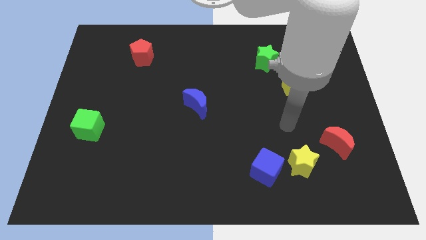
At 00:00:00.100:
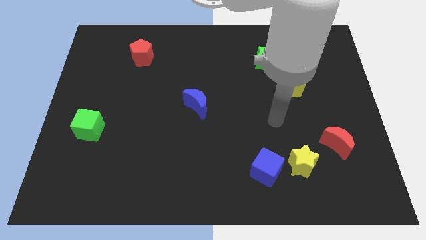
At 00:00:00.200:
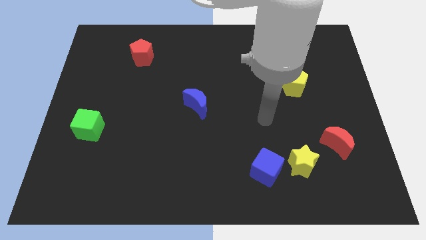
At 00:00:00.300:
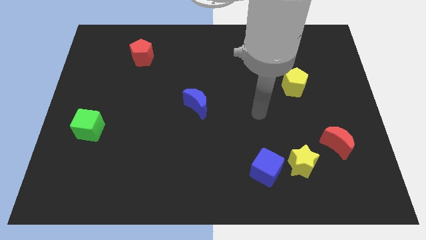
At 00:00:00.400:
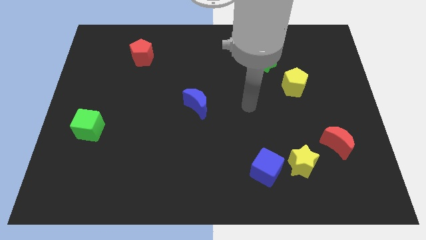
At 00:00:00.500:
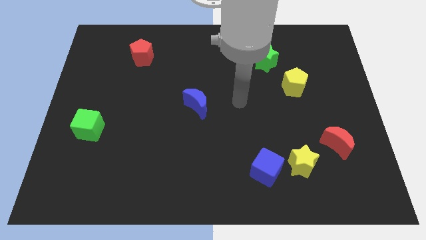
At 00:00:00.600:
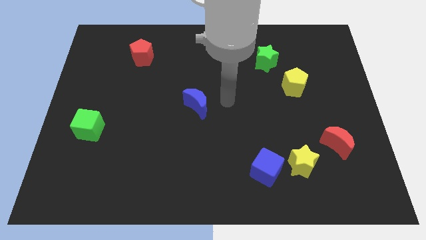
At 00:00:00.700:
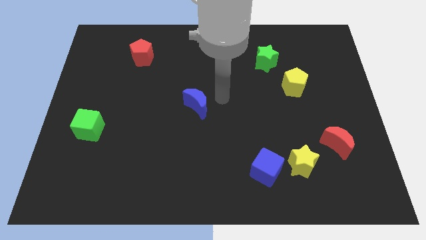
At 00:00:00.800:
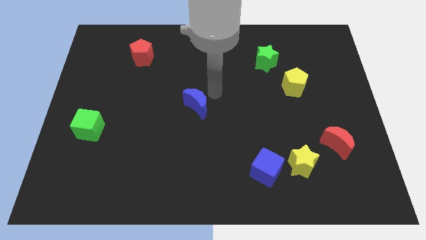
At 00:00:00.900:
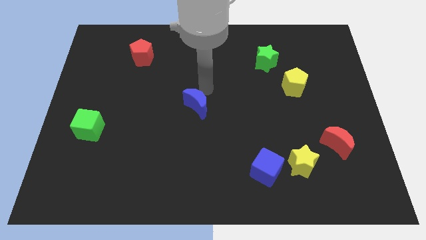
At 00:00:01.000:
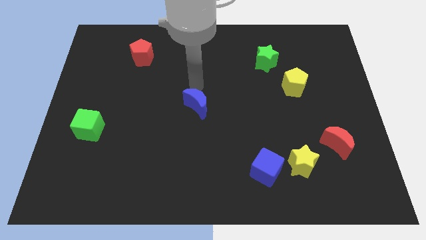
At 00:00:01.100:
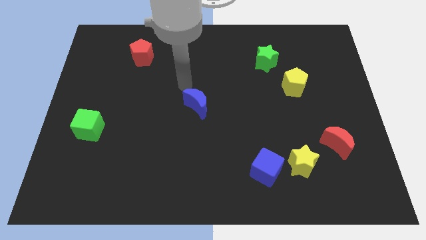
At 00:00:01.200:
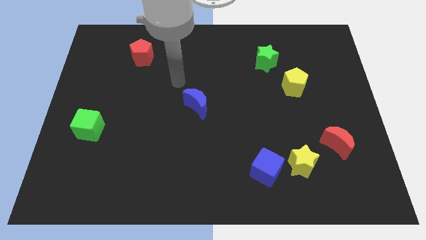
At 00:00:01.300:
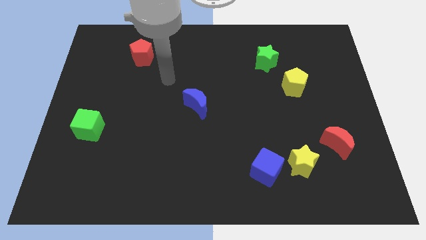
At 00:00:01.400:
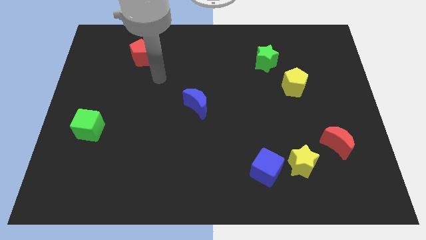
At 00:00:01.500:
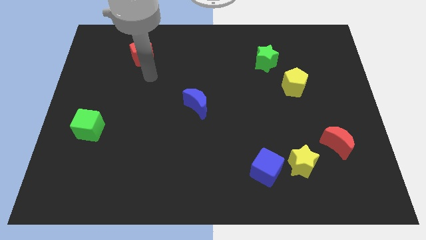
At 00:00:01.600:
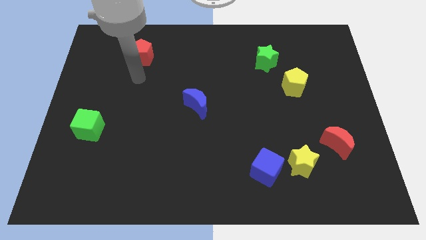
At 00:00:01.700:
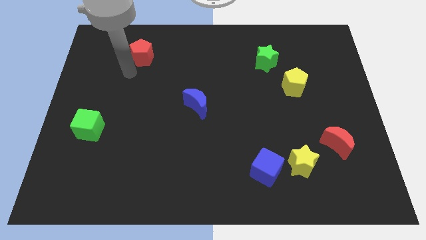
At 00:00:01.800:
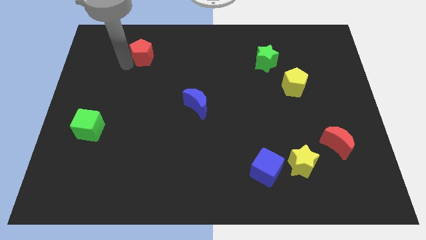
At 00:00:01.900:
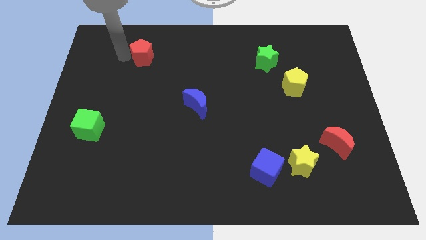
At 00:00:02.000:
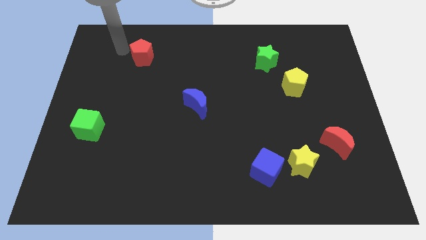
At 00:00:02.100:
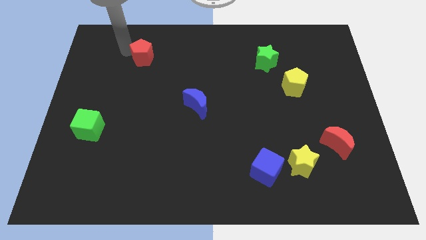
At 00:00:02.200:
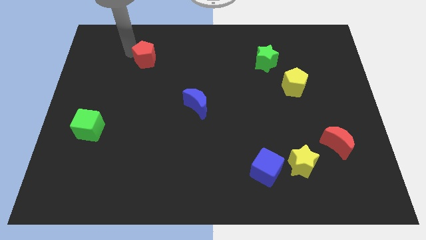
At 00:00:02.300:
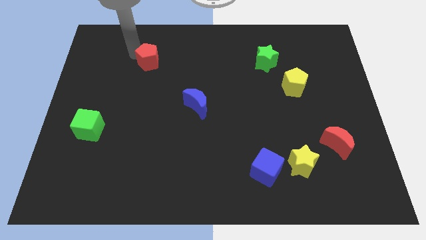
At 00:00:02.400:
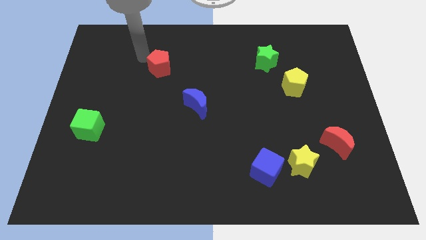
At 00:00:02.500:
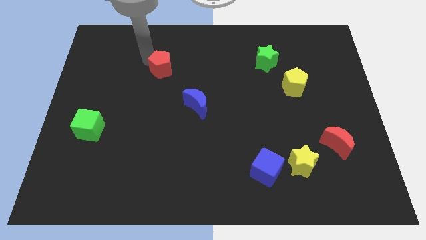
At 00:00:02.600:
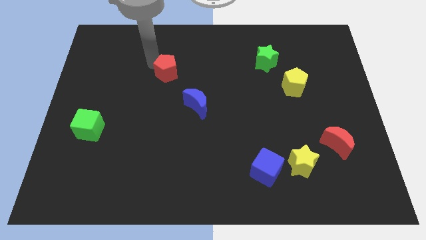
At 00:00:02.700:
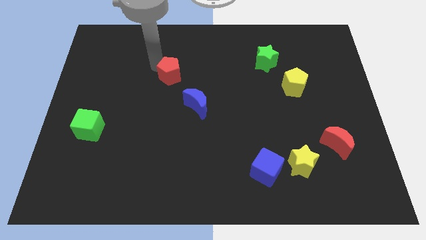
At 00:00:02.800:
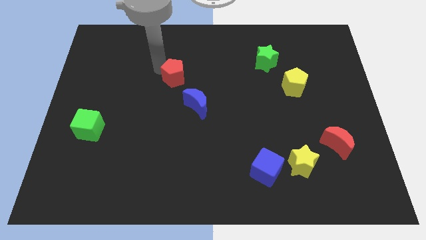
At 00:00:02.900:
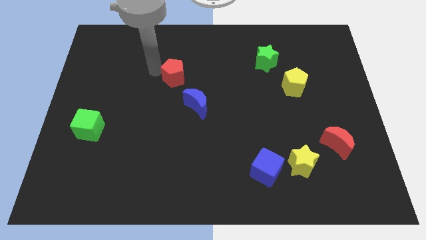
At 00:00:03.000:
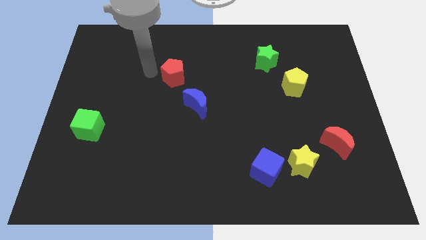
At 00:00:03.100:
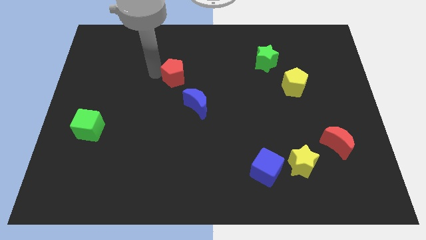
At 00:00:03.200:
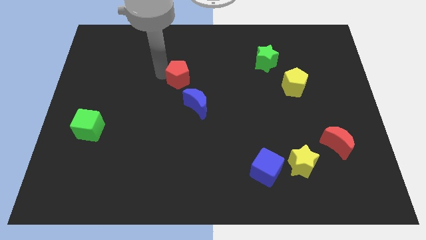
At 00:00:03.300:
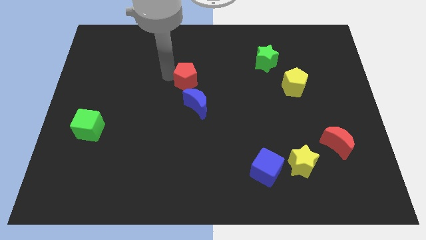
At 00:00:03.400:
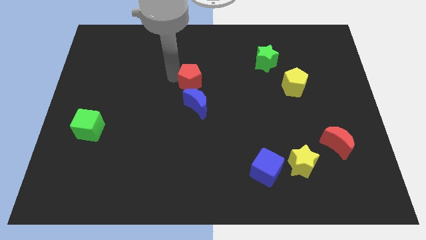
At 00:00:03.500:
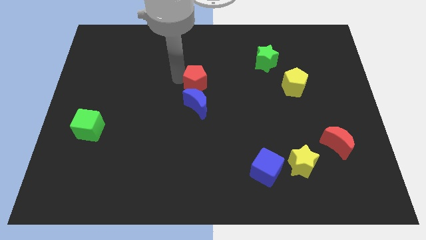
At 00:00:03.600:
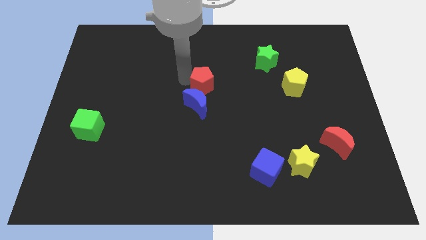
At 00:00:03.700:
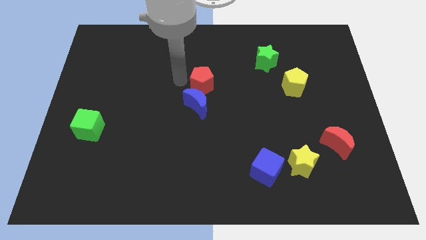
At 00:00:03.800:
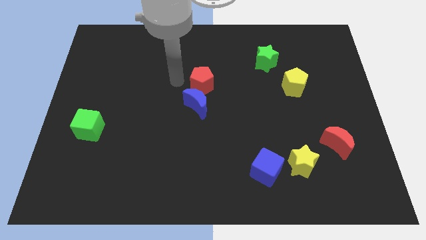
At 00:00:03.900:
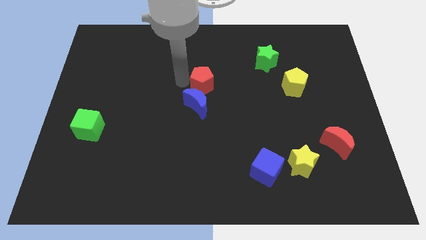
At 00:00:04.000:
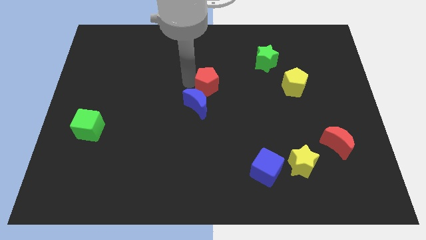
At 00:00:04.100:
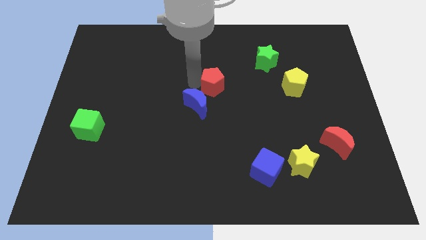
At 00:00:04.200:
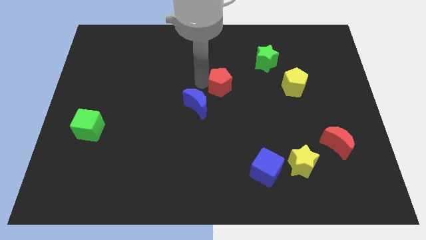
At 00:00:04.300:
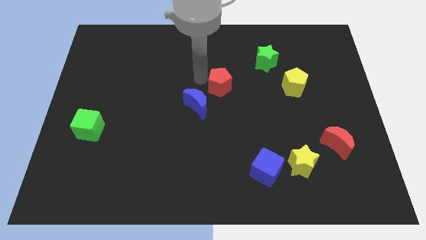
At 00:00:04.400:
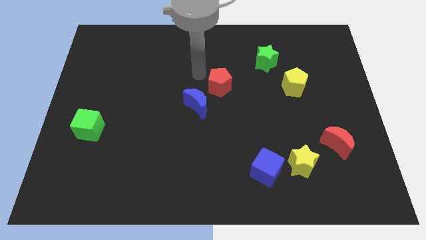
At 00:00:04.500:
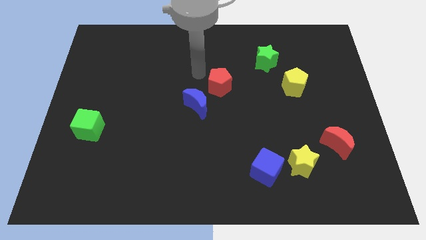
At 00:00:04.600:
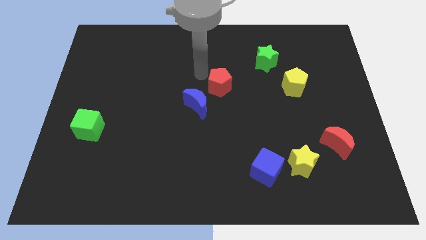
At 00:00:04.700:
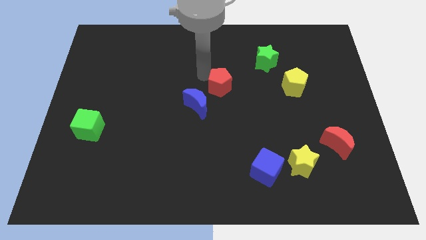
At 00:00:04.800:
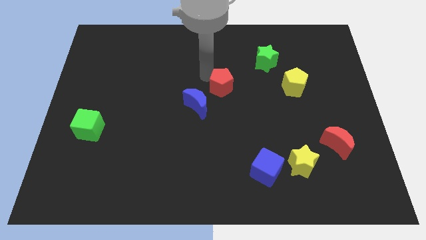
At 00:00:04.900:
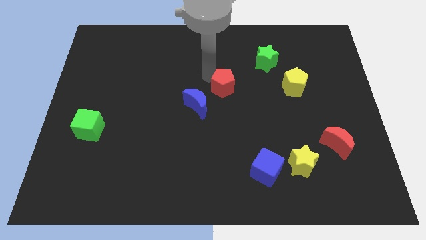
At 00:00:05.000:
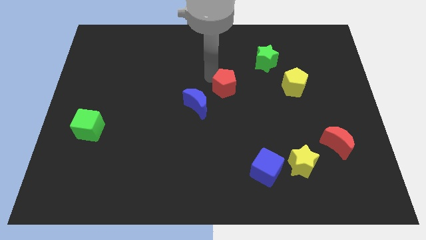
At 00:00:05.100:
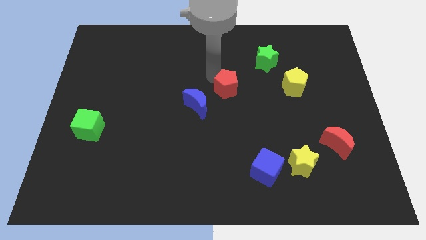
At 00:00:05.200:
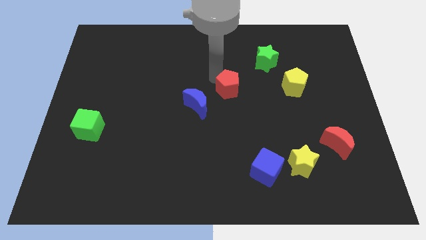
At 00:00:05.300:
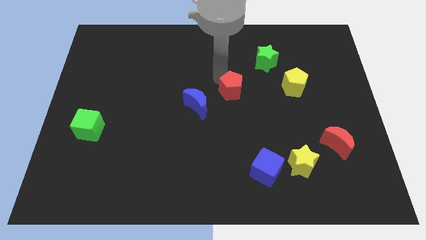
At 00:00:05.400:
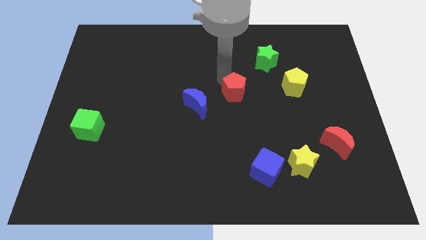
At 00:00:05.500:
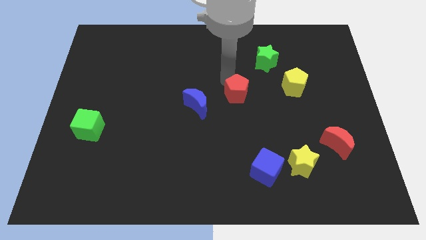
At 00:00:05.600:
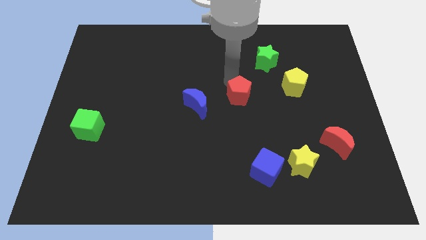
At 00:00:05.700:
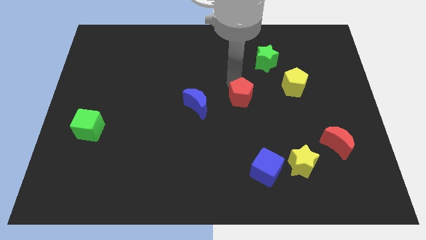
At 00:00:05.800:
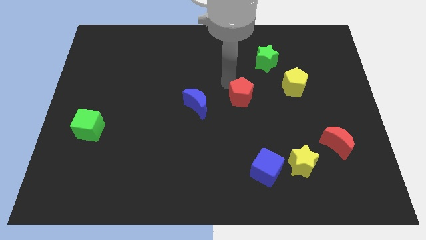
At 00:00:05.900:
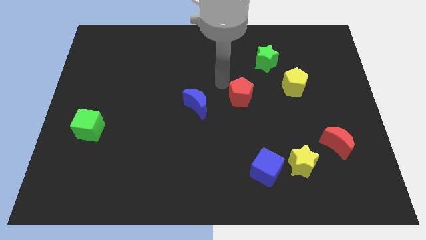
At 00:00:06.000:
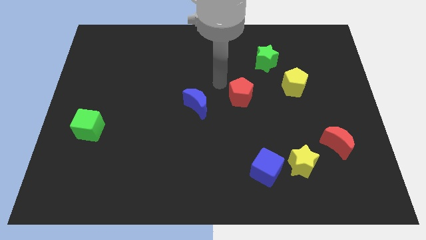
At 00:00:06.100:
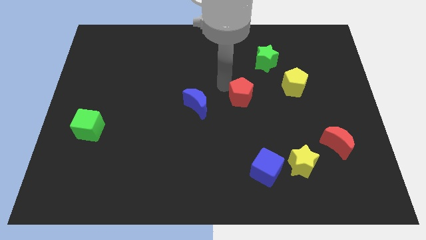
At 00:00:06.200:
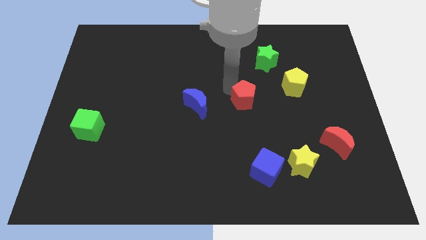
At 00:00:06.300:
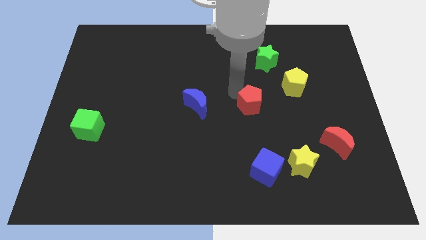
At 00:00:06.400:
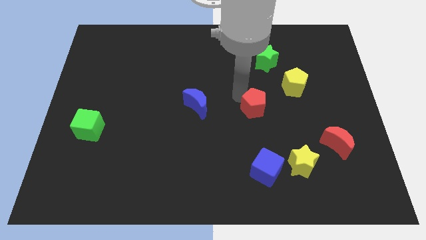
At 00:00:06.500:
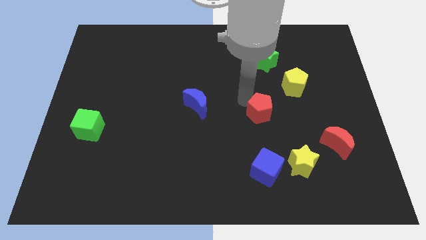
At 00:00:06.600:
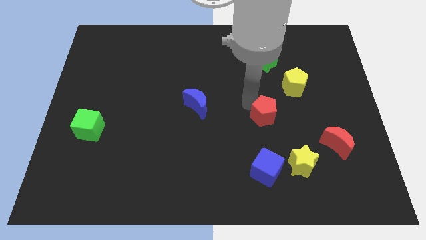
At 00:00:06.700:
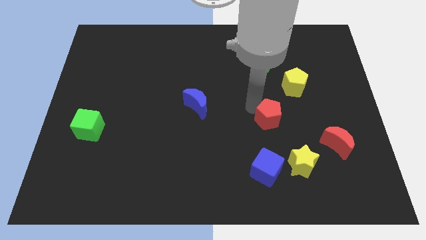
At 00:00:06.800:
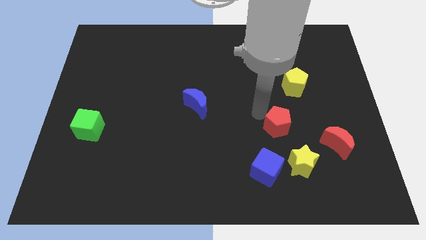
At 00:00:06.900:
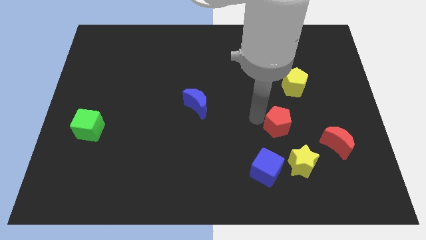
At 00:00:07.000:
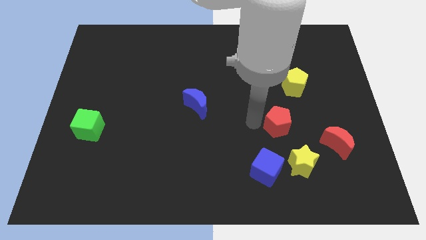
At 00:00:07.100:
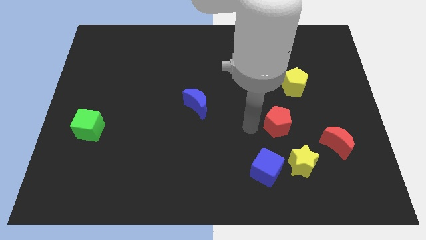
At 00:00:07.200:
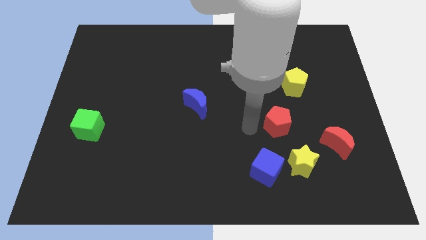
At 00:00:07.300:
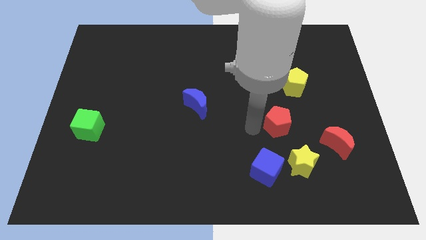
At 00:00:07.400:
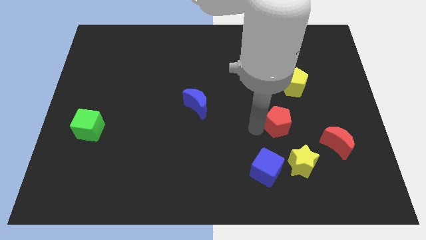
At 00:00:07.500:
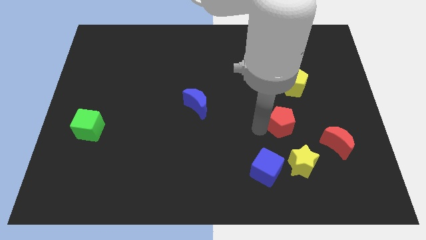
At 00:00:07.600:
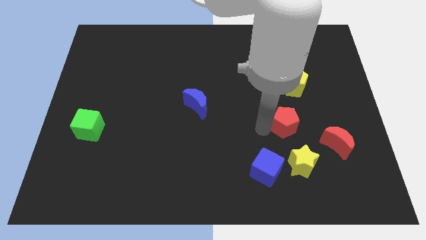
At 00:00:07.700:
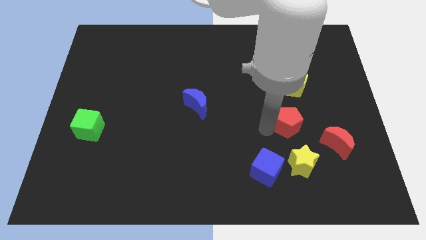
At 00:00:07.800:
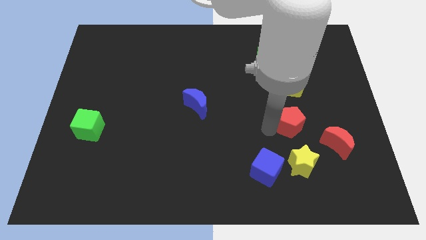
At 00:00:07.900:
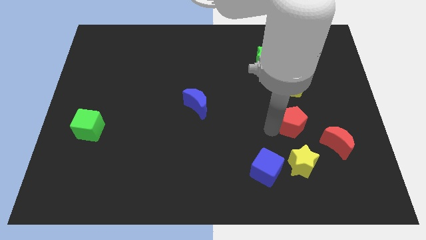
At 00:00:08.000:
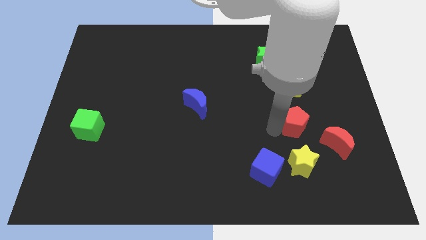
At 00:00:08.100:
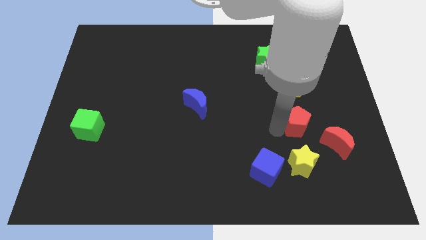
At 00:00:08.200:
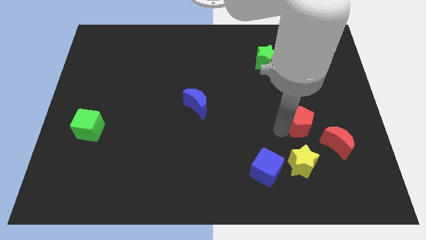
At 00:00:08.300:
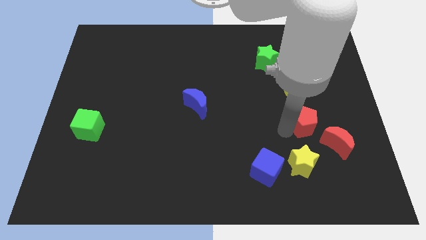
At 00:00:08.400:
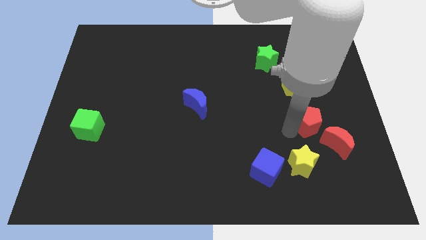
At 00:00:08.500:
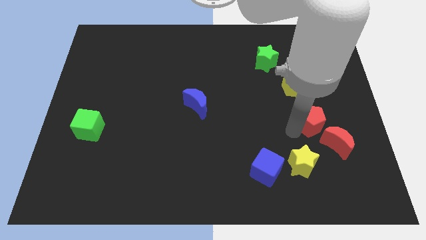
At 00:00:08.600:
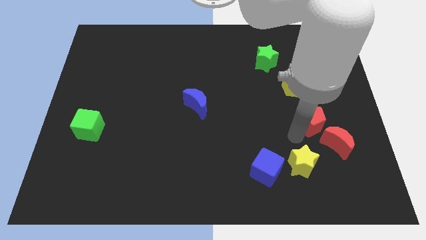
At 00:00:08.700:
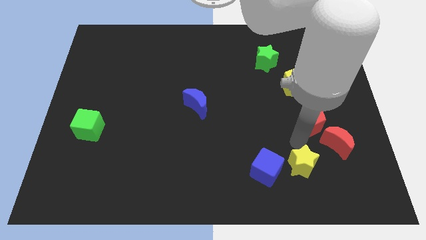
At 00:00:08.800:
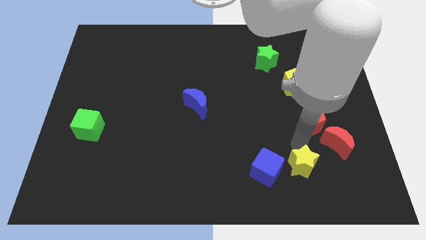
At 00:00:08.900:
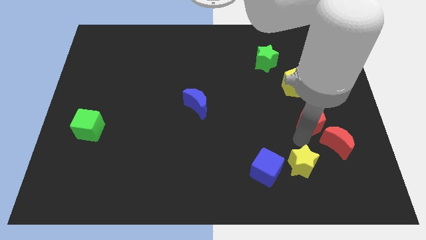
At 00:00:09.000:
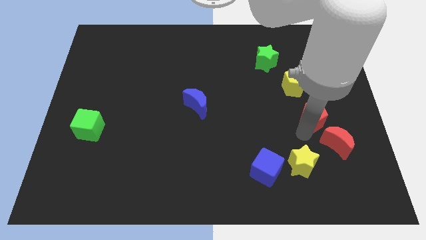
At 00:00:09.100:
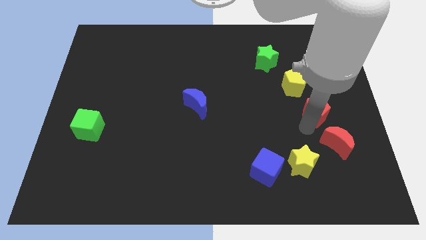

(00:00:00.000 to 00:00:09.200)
slide the red pentagon to the bottom right of the yellow pentagon
